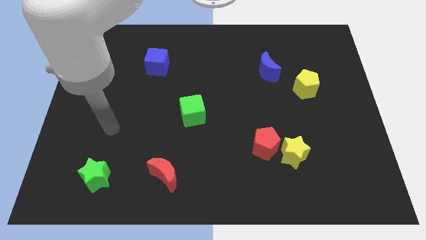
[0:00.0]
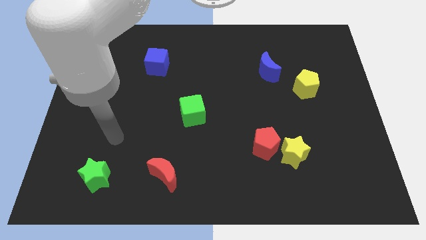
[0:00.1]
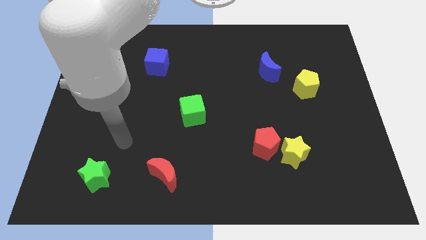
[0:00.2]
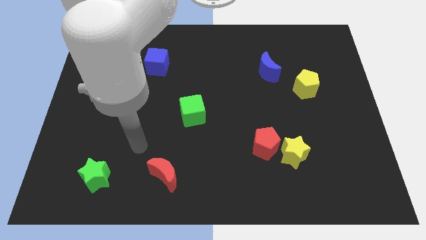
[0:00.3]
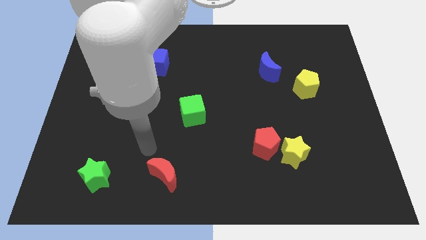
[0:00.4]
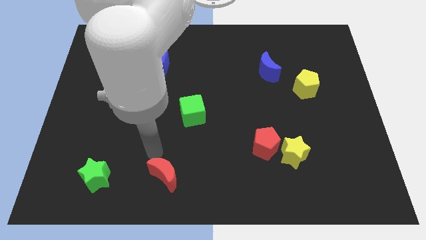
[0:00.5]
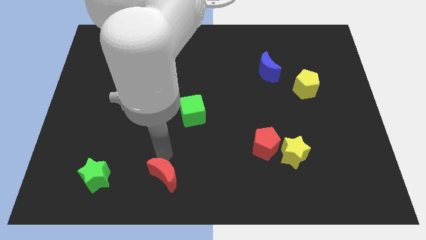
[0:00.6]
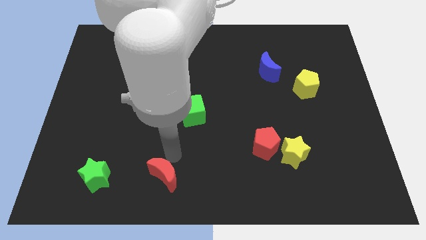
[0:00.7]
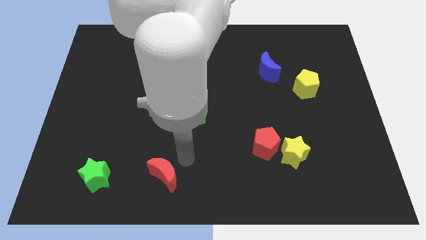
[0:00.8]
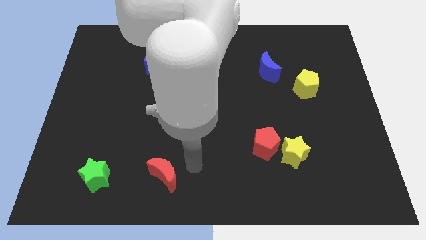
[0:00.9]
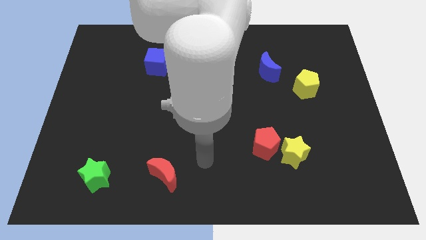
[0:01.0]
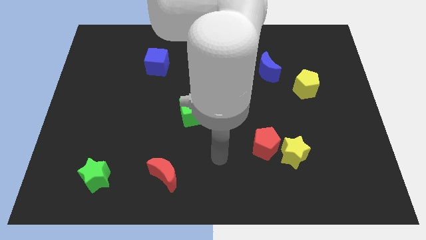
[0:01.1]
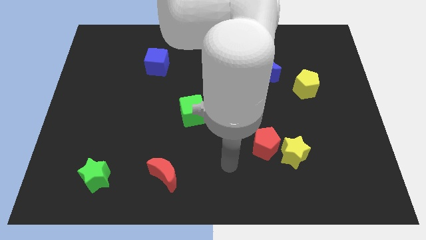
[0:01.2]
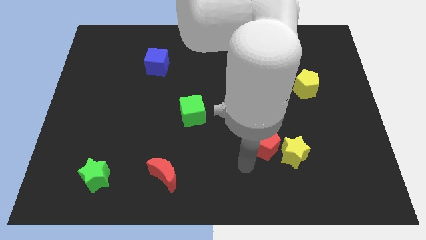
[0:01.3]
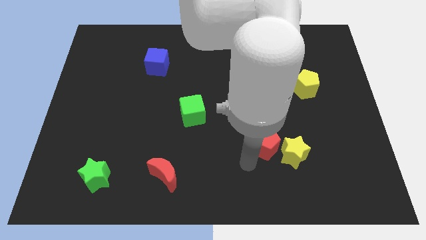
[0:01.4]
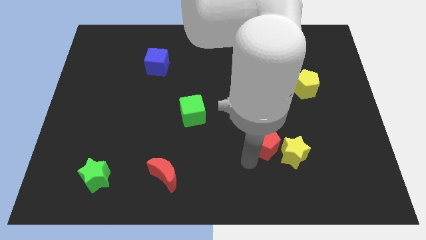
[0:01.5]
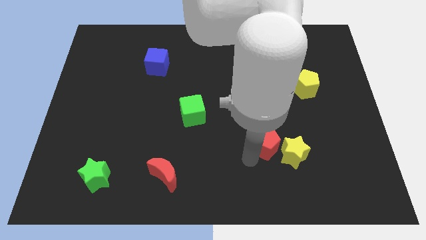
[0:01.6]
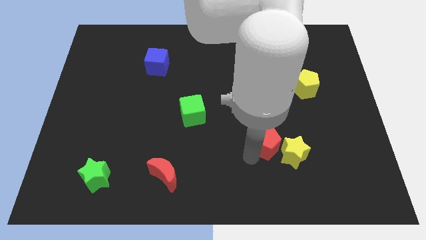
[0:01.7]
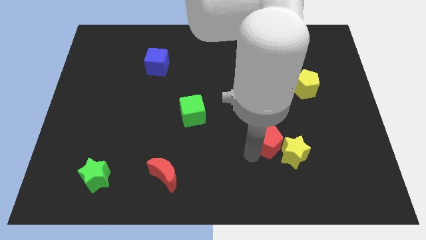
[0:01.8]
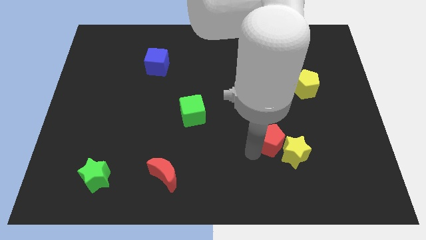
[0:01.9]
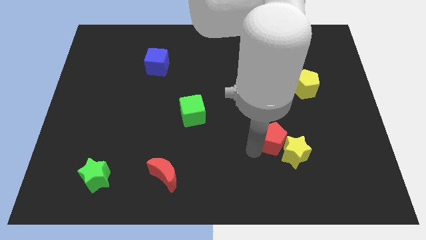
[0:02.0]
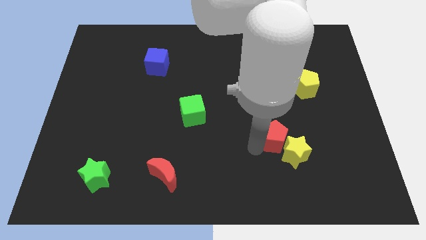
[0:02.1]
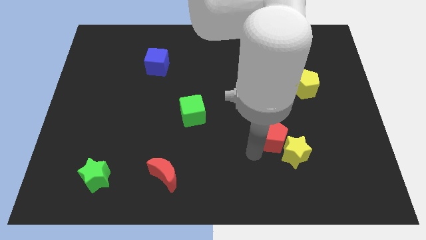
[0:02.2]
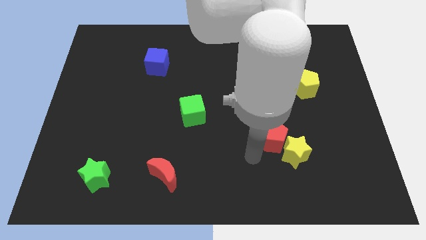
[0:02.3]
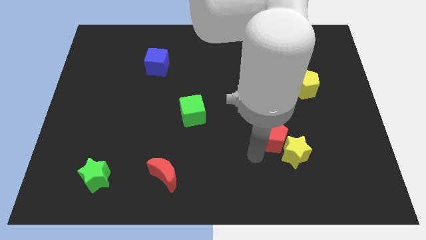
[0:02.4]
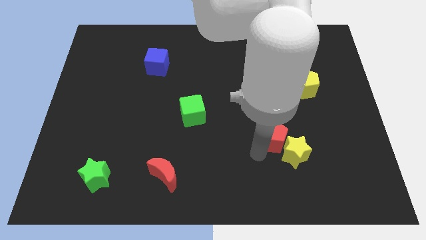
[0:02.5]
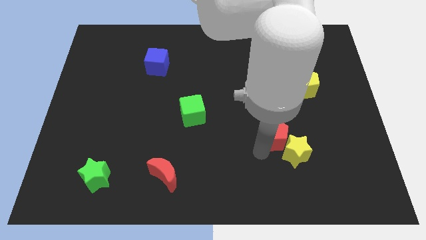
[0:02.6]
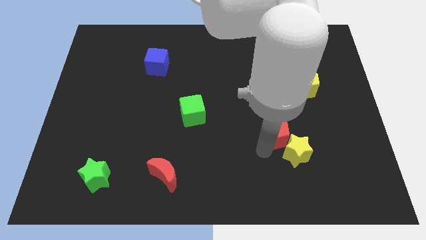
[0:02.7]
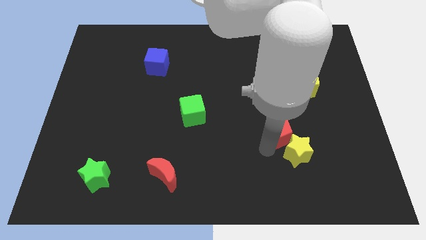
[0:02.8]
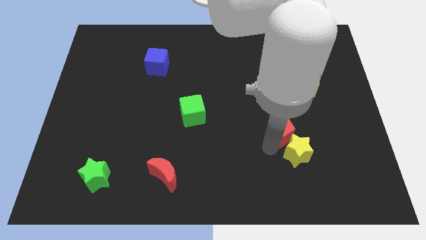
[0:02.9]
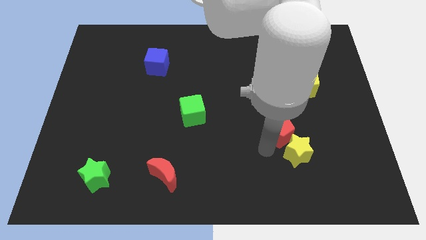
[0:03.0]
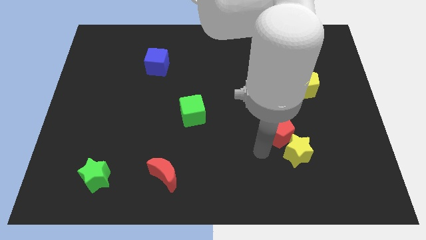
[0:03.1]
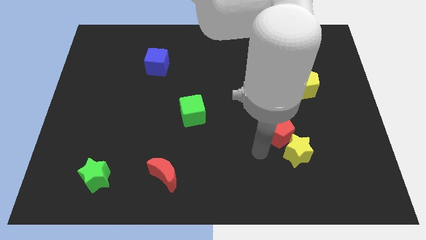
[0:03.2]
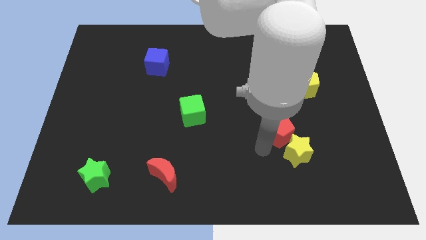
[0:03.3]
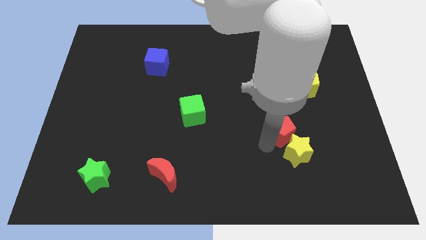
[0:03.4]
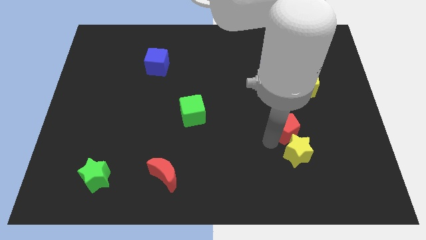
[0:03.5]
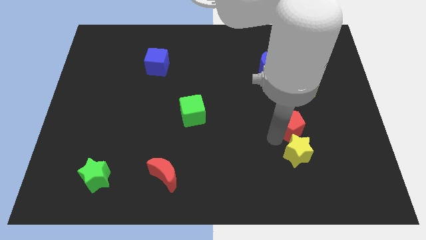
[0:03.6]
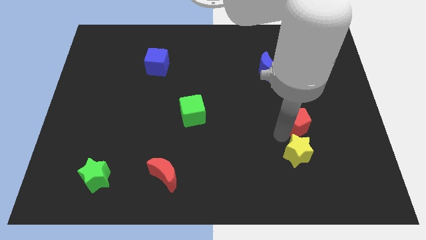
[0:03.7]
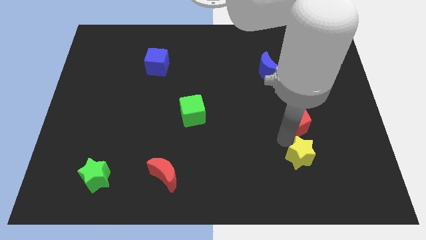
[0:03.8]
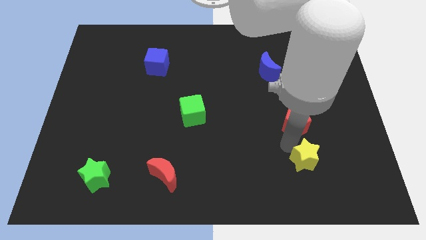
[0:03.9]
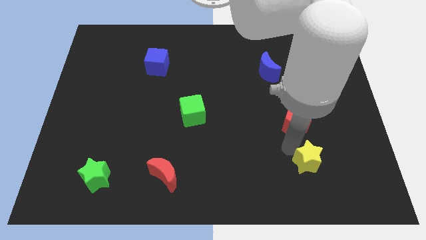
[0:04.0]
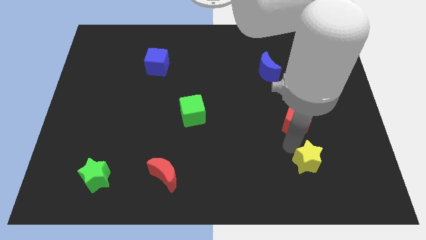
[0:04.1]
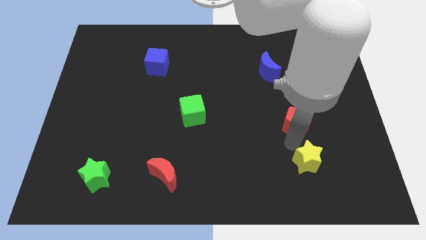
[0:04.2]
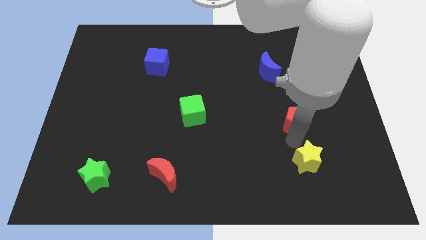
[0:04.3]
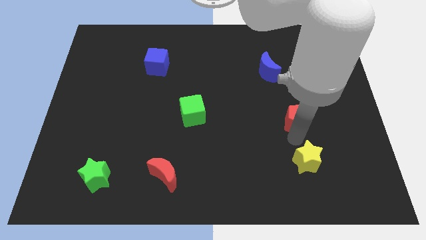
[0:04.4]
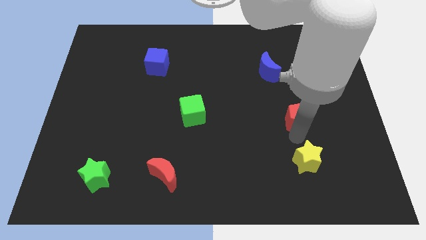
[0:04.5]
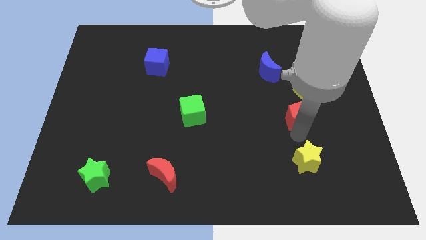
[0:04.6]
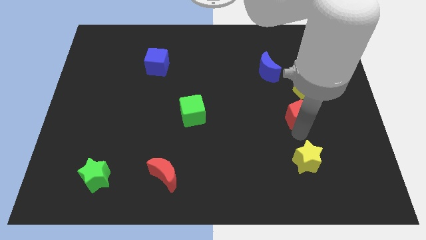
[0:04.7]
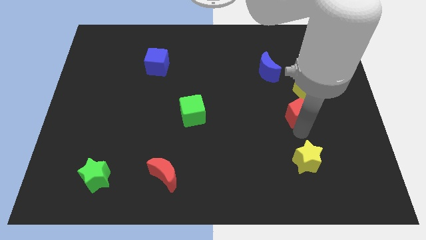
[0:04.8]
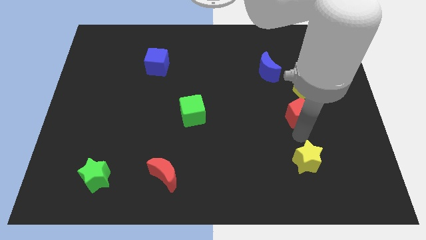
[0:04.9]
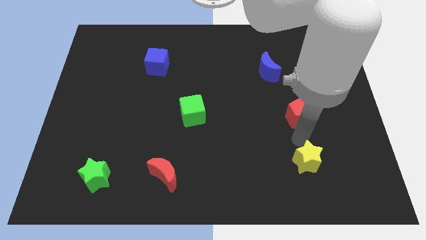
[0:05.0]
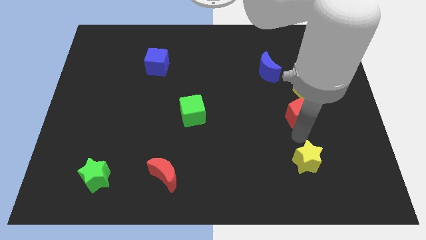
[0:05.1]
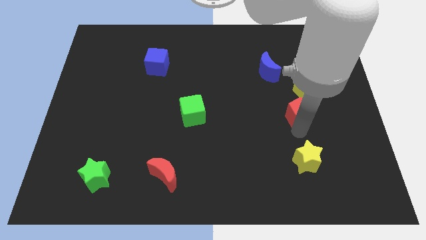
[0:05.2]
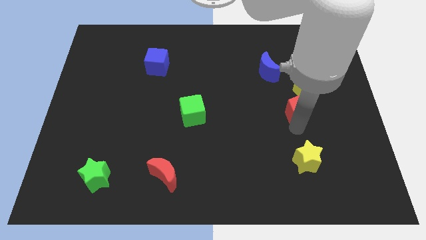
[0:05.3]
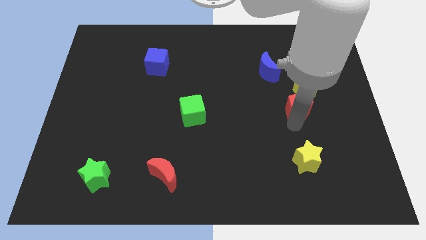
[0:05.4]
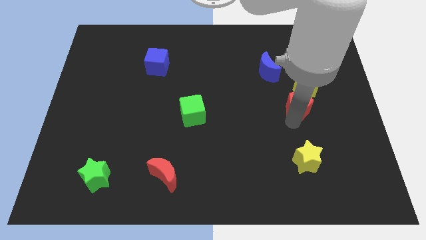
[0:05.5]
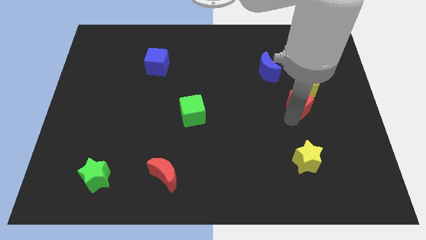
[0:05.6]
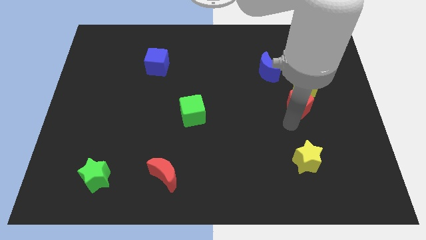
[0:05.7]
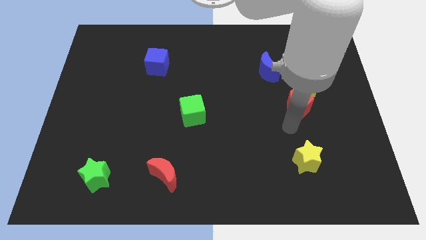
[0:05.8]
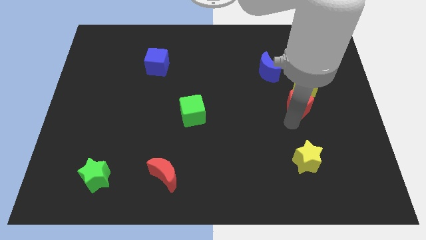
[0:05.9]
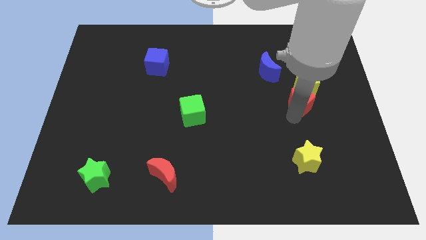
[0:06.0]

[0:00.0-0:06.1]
push the red pentagon to the yellow pentagon

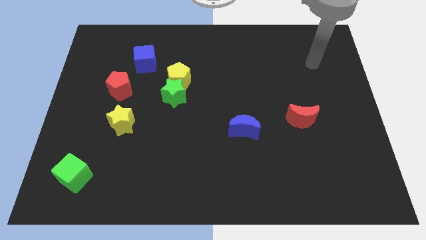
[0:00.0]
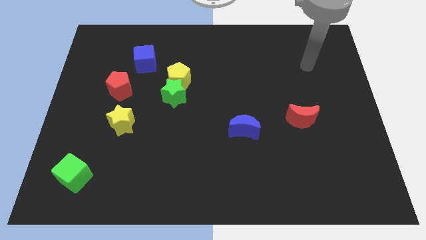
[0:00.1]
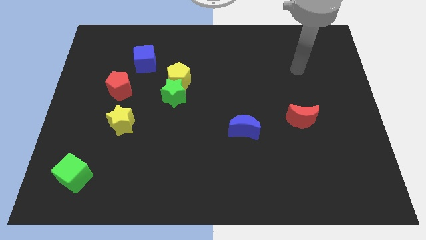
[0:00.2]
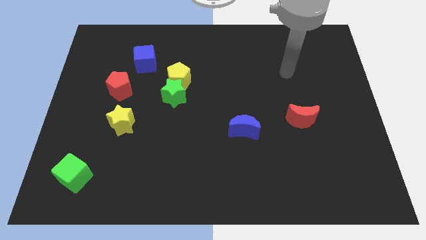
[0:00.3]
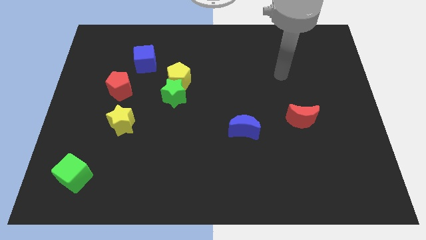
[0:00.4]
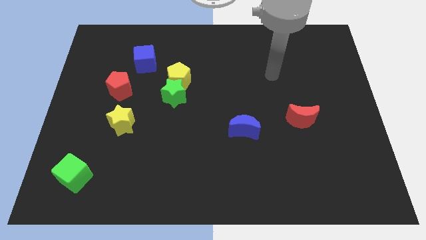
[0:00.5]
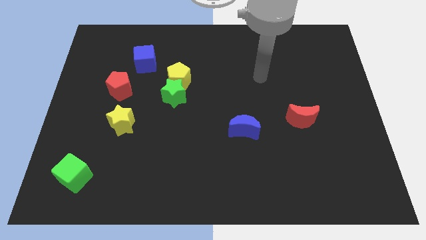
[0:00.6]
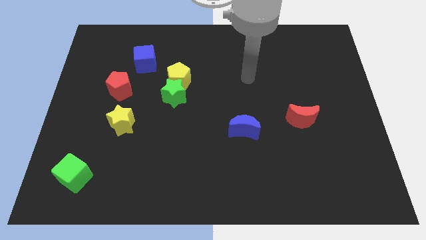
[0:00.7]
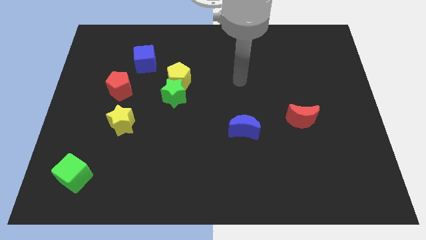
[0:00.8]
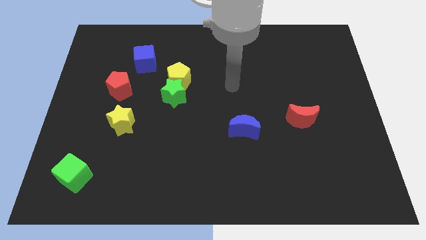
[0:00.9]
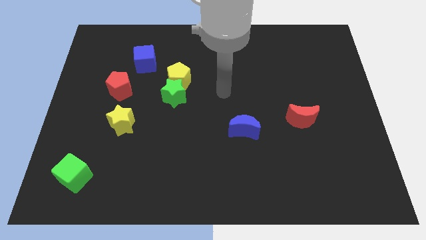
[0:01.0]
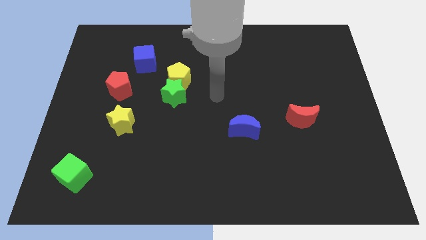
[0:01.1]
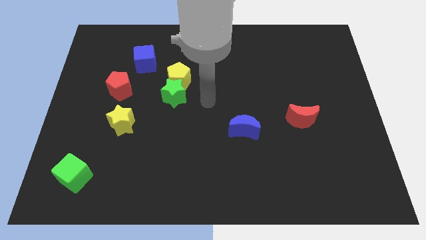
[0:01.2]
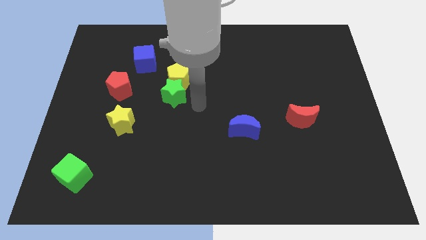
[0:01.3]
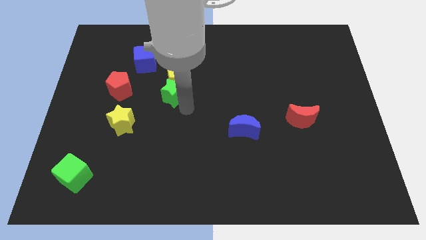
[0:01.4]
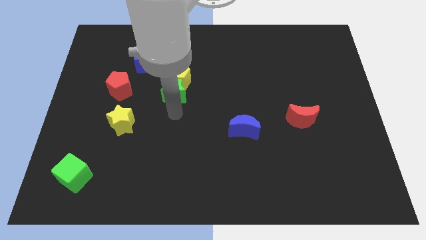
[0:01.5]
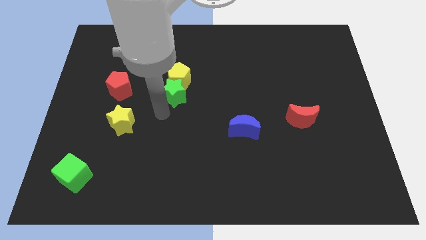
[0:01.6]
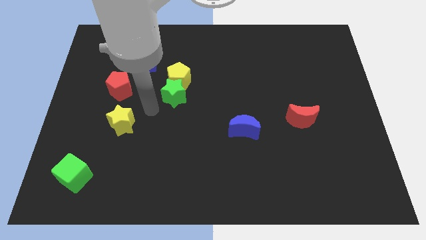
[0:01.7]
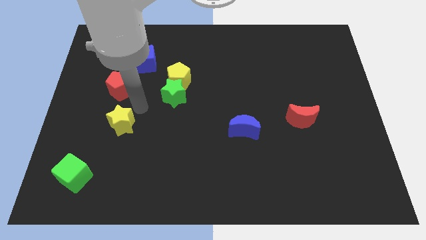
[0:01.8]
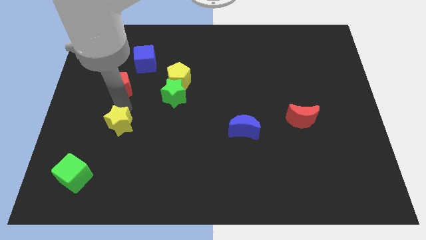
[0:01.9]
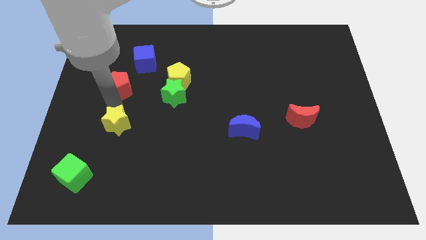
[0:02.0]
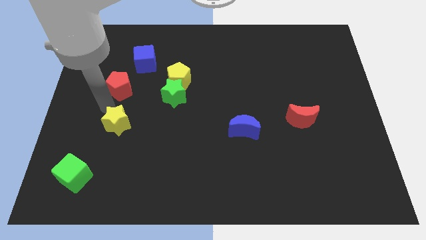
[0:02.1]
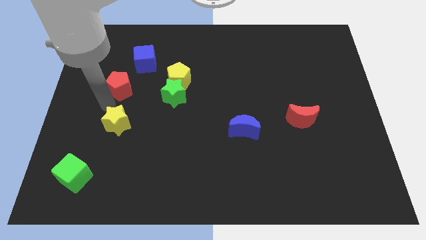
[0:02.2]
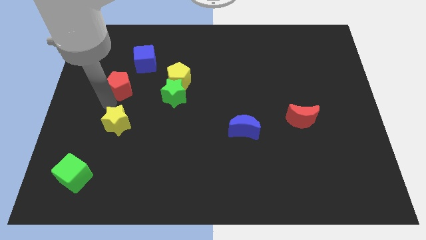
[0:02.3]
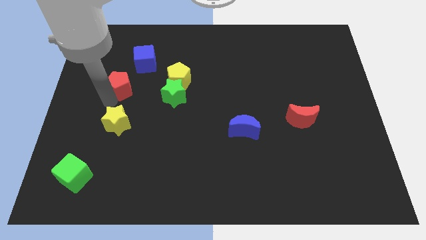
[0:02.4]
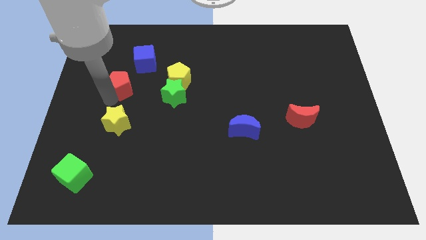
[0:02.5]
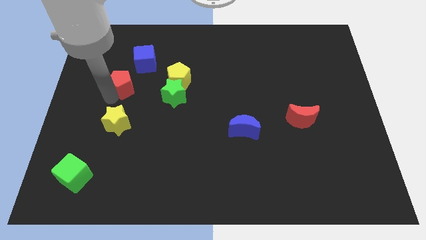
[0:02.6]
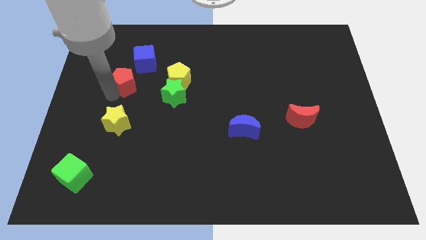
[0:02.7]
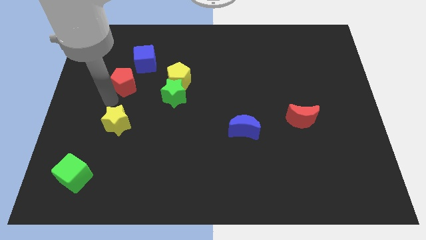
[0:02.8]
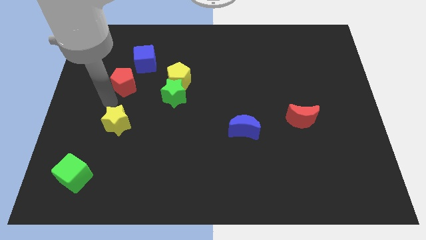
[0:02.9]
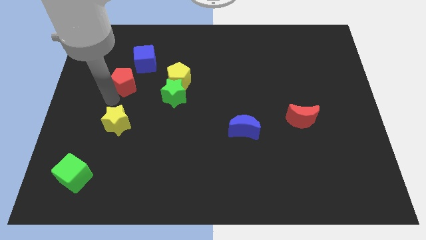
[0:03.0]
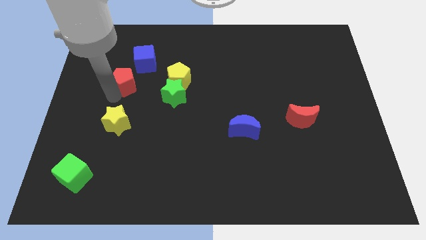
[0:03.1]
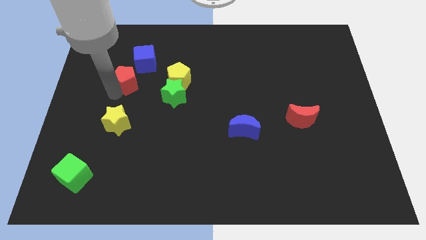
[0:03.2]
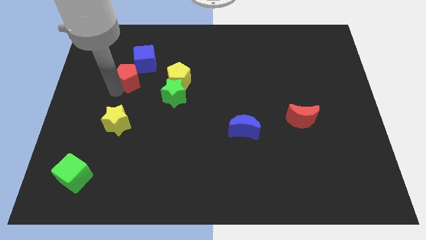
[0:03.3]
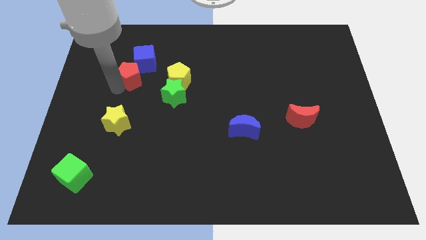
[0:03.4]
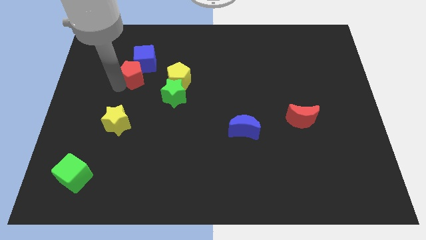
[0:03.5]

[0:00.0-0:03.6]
put the red pentagon towards the blue cube
